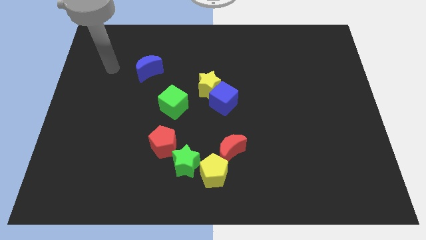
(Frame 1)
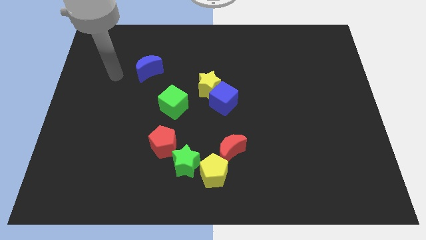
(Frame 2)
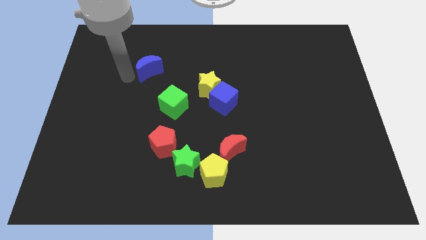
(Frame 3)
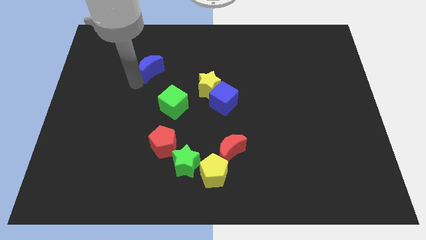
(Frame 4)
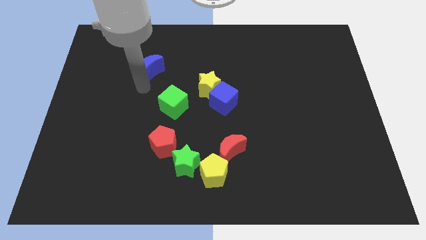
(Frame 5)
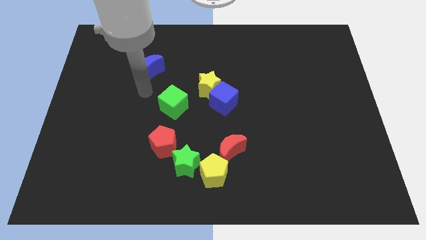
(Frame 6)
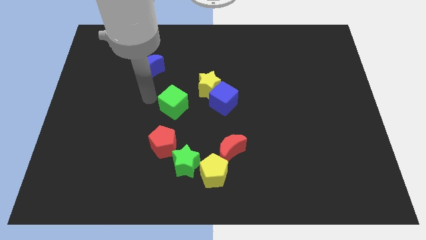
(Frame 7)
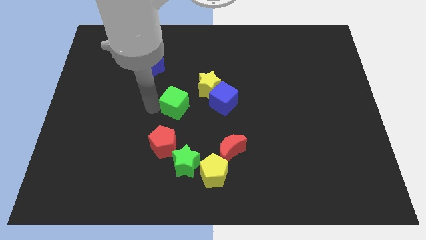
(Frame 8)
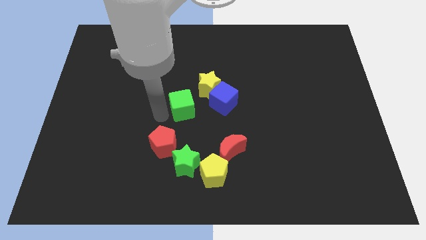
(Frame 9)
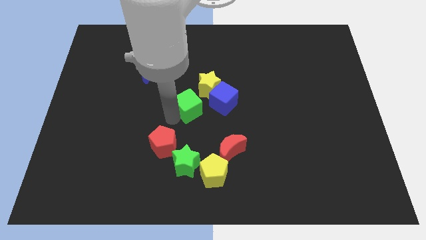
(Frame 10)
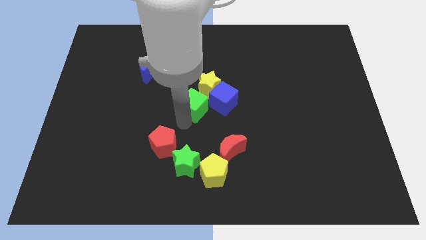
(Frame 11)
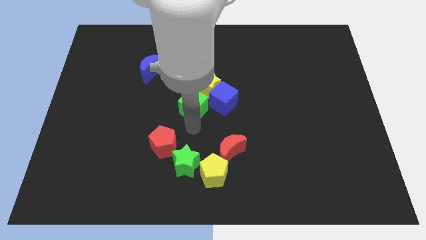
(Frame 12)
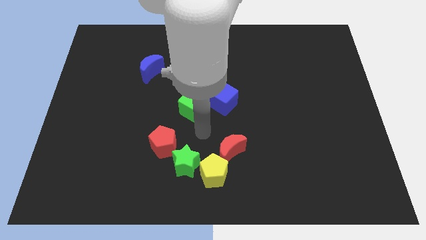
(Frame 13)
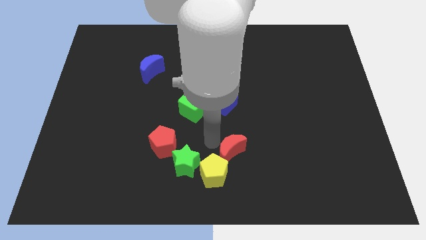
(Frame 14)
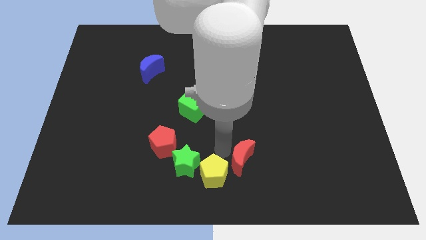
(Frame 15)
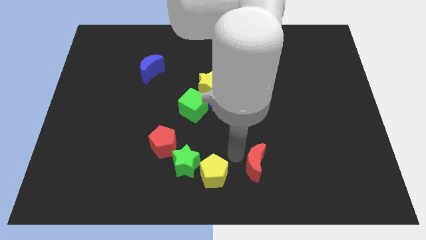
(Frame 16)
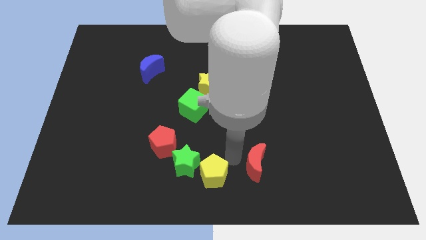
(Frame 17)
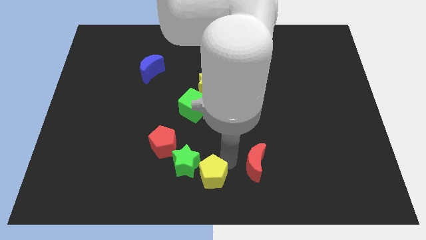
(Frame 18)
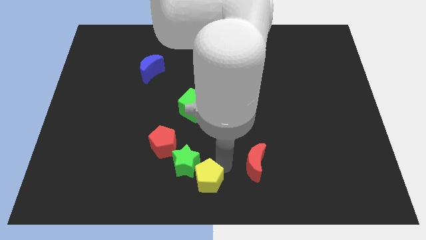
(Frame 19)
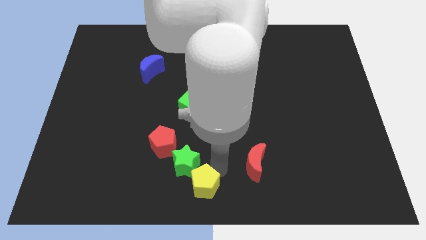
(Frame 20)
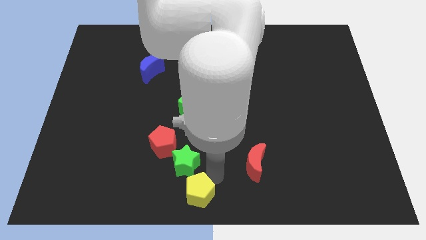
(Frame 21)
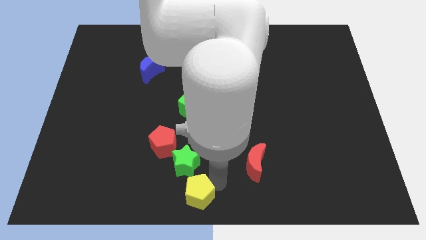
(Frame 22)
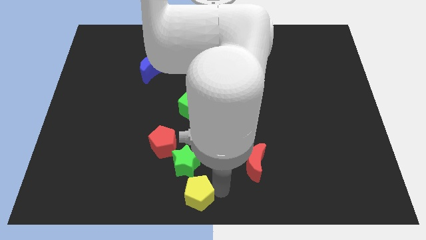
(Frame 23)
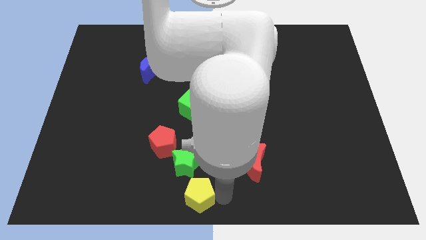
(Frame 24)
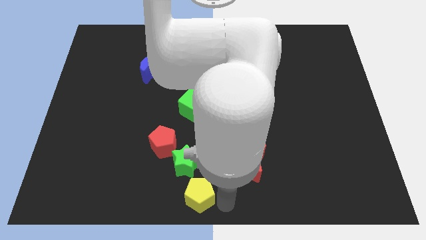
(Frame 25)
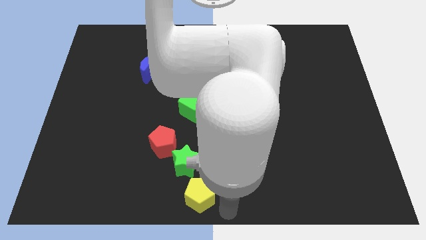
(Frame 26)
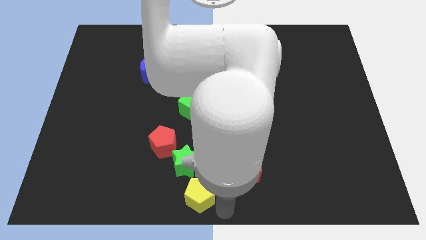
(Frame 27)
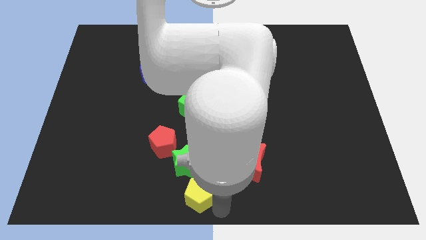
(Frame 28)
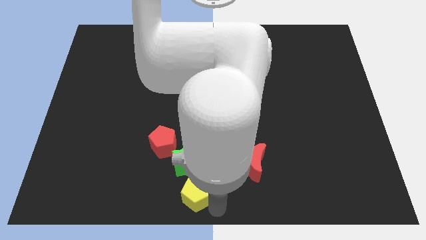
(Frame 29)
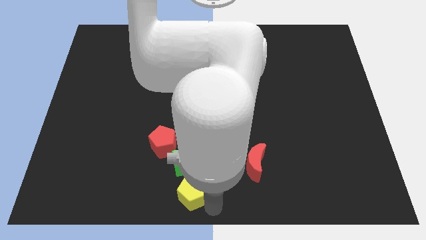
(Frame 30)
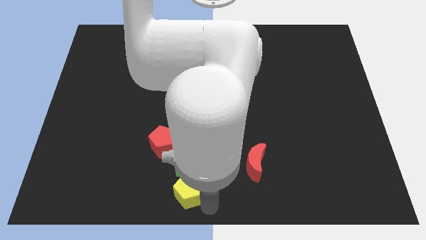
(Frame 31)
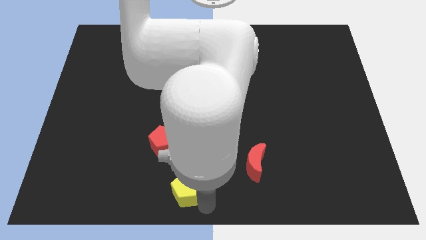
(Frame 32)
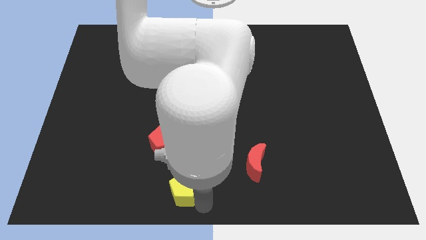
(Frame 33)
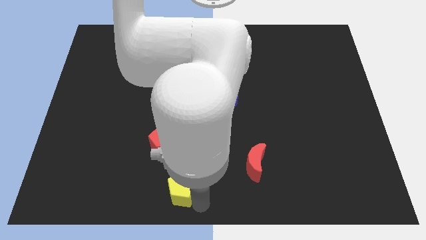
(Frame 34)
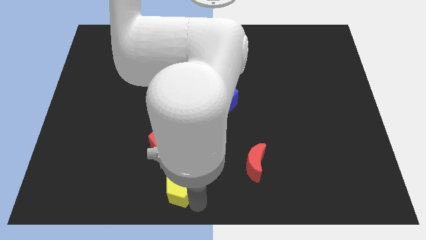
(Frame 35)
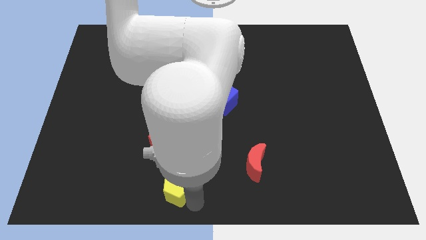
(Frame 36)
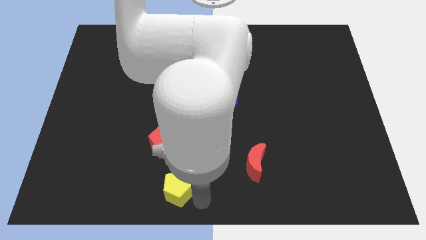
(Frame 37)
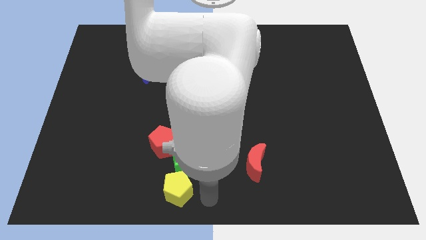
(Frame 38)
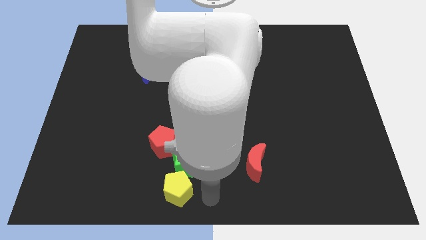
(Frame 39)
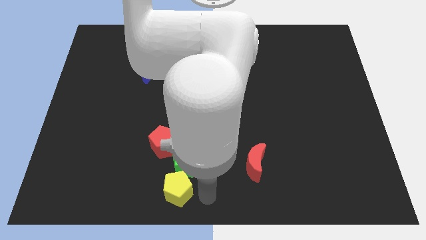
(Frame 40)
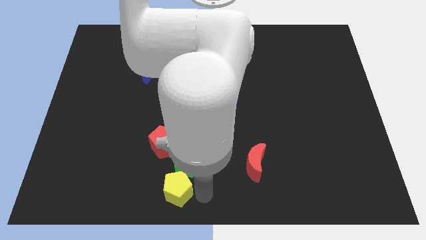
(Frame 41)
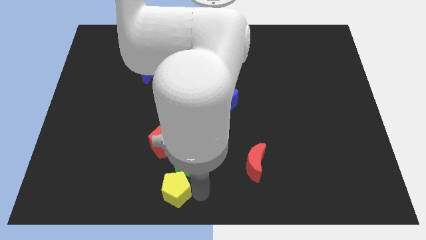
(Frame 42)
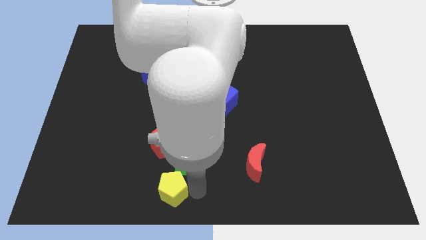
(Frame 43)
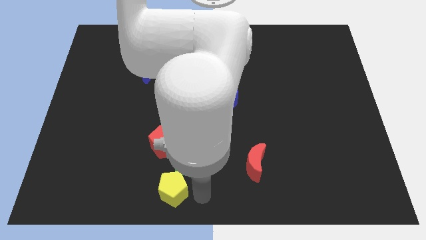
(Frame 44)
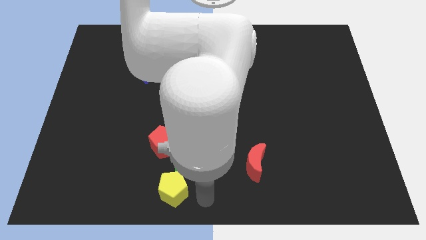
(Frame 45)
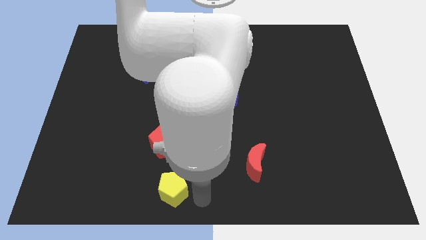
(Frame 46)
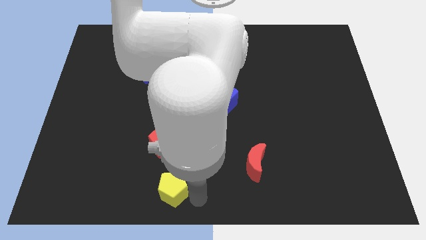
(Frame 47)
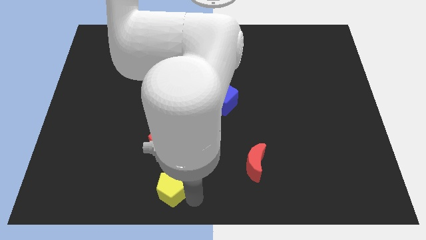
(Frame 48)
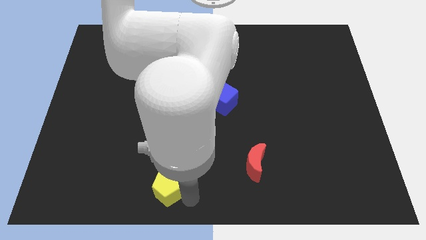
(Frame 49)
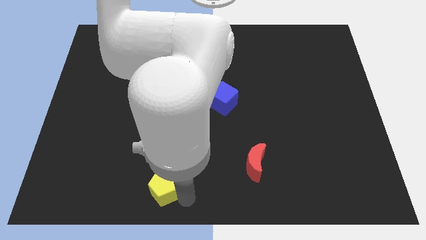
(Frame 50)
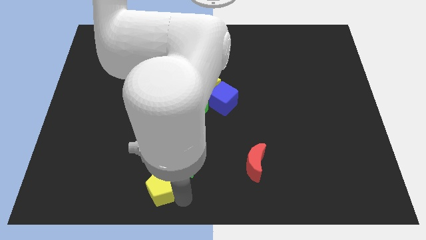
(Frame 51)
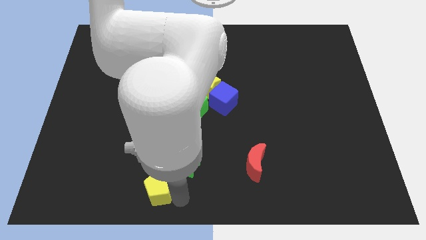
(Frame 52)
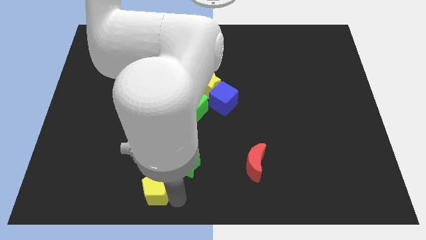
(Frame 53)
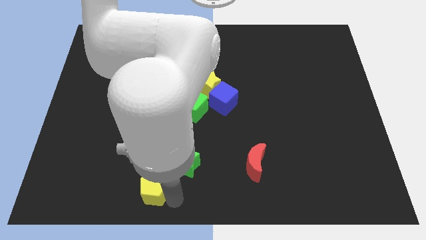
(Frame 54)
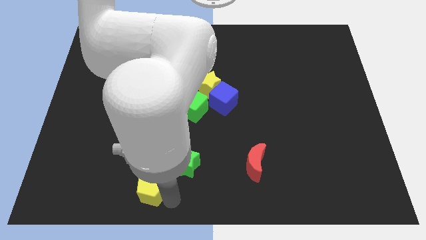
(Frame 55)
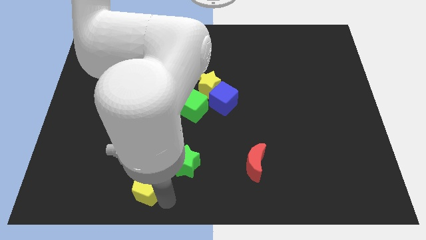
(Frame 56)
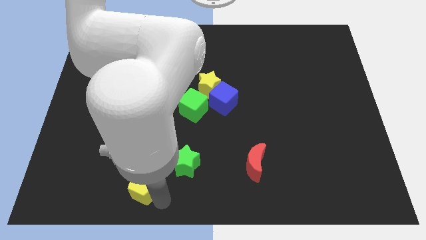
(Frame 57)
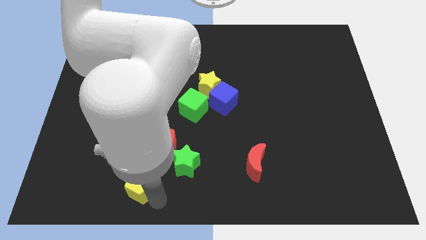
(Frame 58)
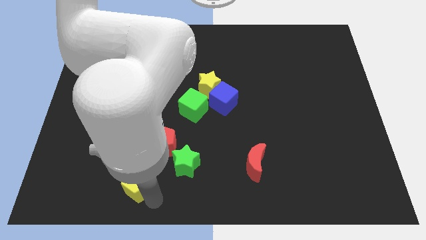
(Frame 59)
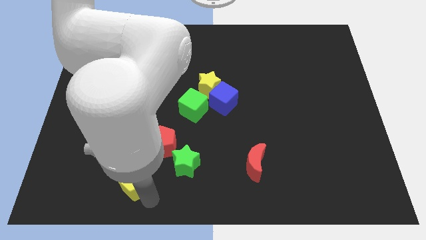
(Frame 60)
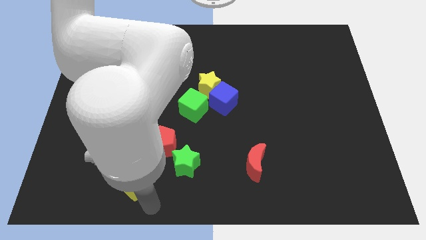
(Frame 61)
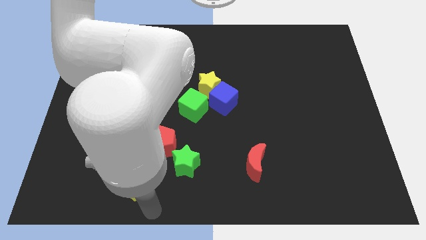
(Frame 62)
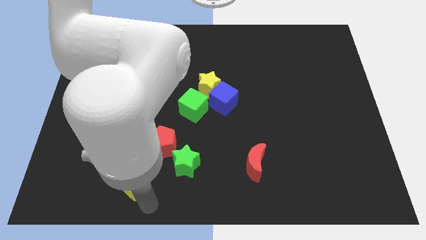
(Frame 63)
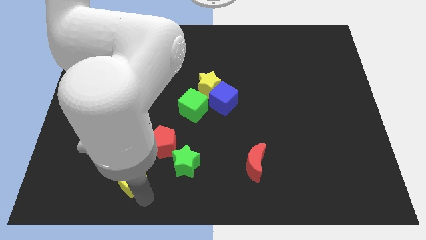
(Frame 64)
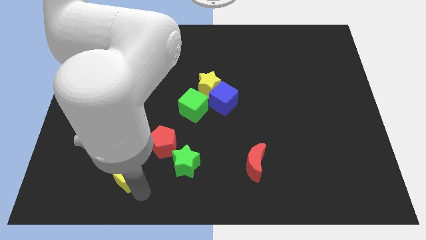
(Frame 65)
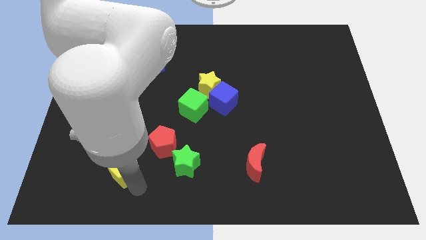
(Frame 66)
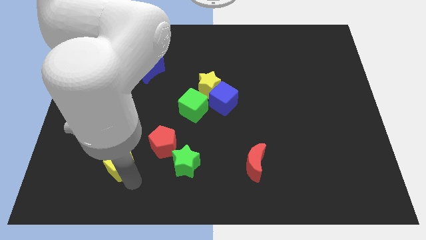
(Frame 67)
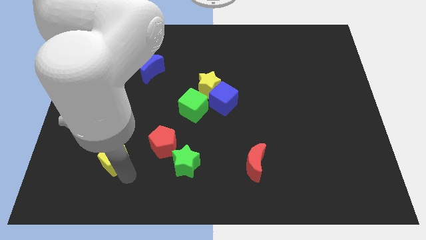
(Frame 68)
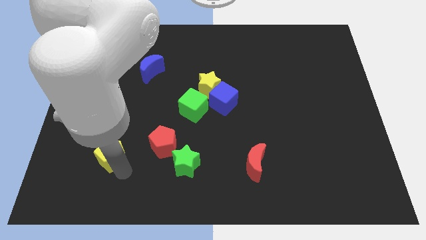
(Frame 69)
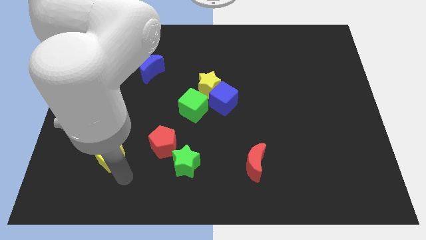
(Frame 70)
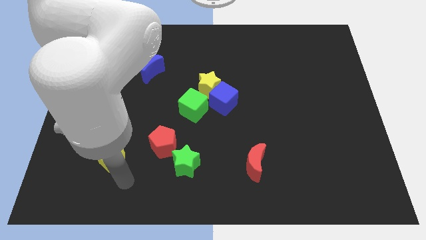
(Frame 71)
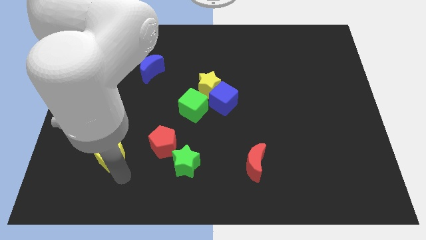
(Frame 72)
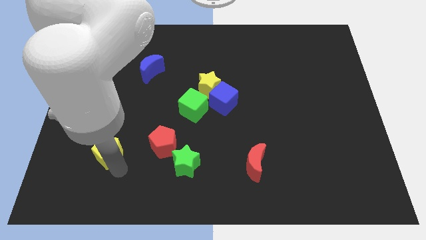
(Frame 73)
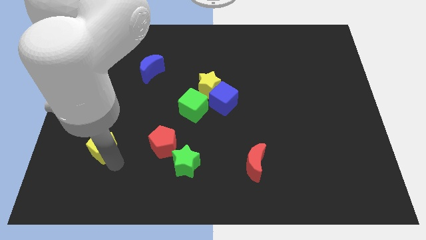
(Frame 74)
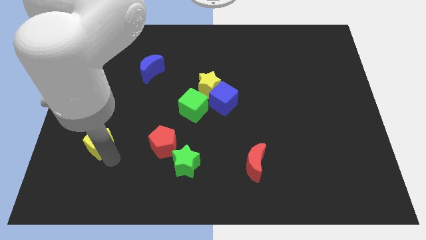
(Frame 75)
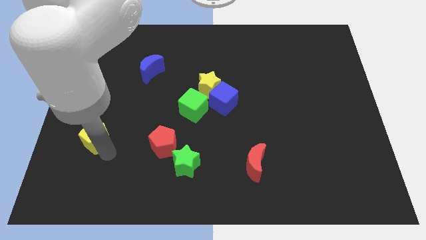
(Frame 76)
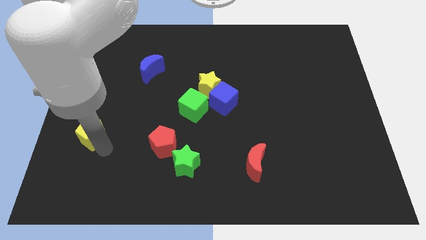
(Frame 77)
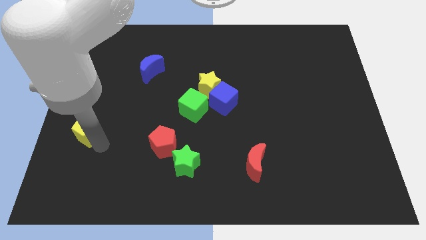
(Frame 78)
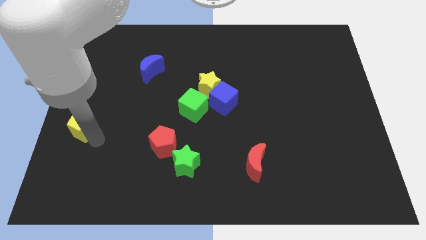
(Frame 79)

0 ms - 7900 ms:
slide the yellow pentagon to the left side of the board
